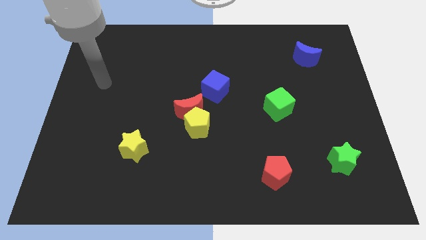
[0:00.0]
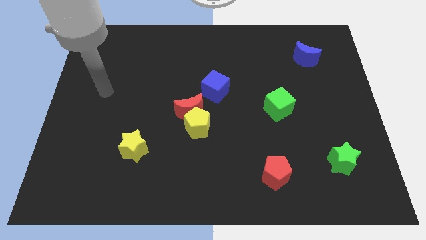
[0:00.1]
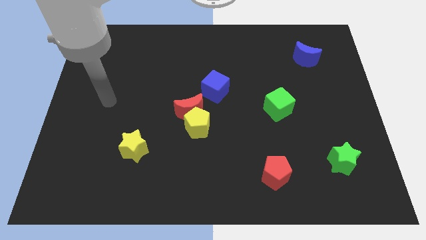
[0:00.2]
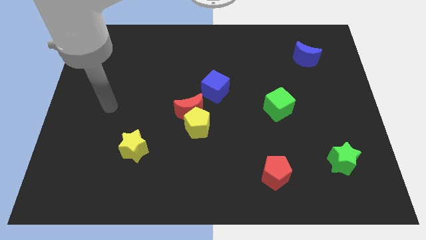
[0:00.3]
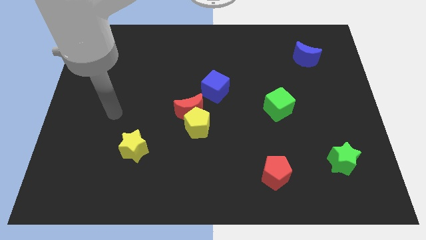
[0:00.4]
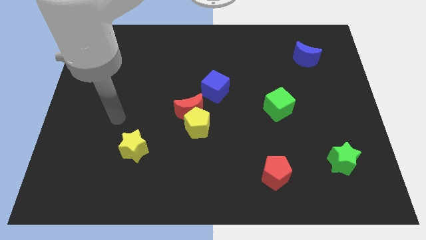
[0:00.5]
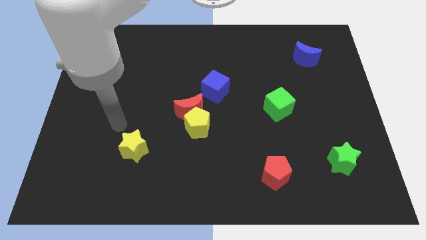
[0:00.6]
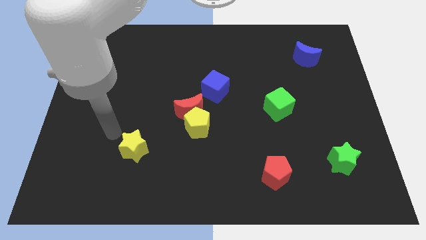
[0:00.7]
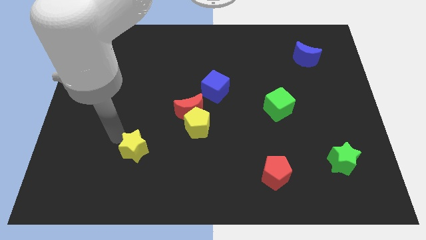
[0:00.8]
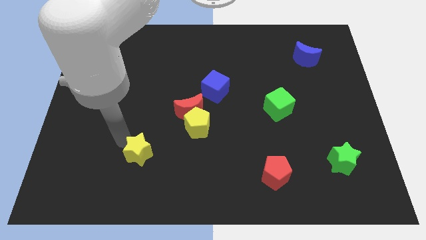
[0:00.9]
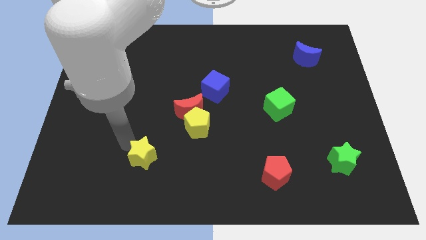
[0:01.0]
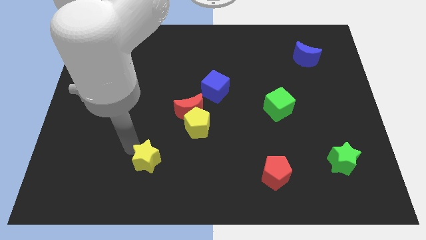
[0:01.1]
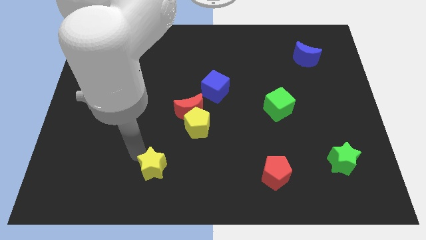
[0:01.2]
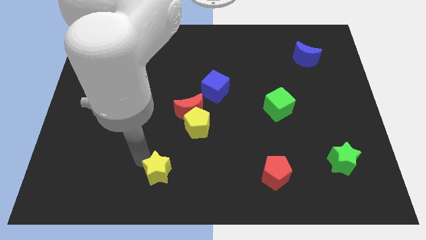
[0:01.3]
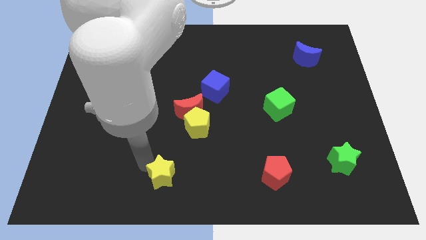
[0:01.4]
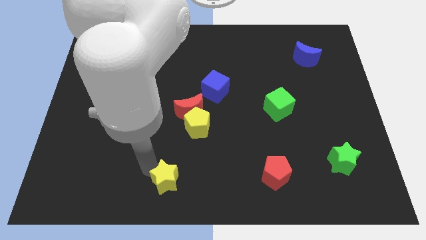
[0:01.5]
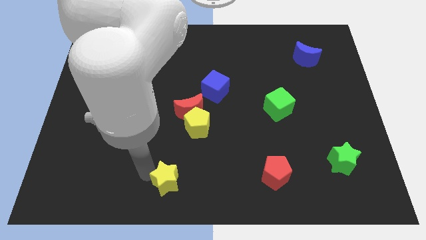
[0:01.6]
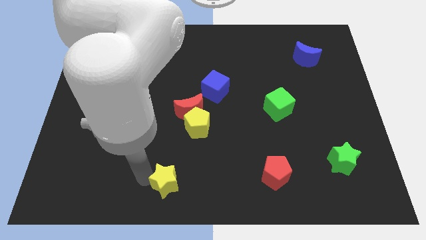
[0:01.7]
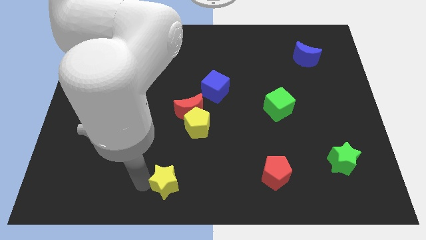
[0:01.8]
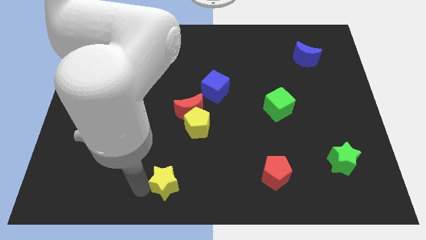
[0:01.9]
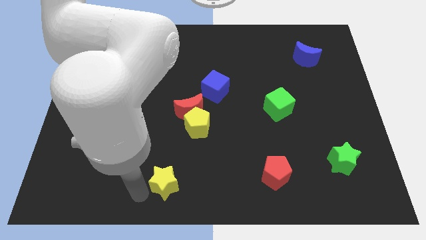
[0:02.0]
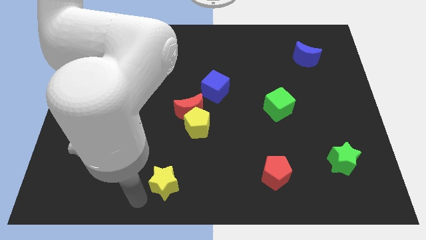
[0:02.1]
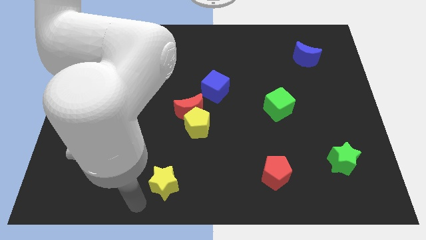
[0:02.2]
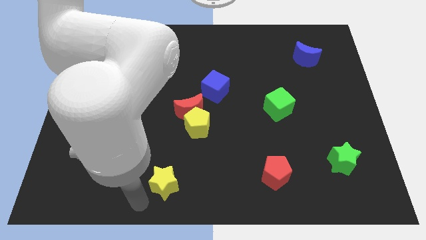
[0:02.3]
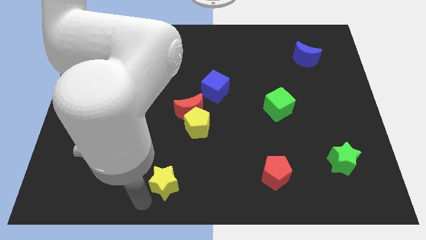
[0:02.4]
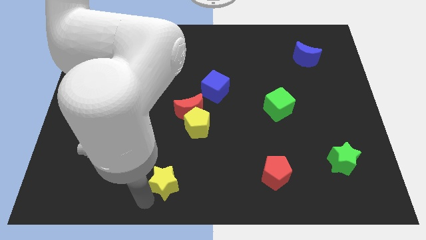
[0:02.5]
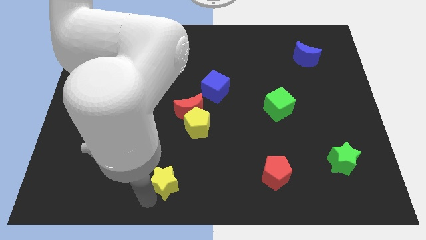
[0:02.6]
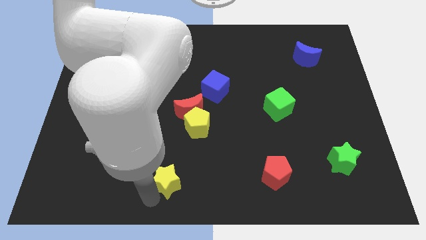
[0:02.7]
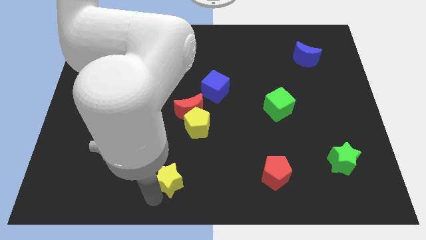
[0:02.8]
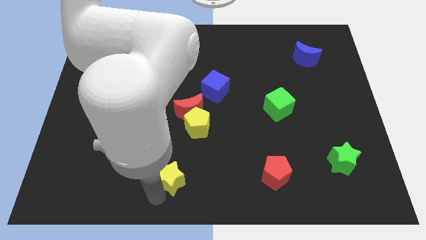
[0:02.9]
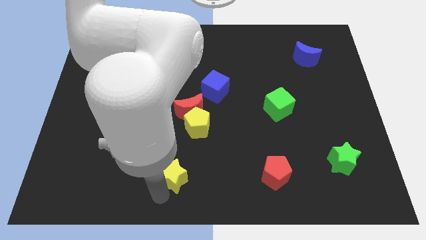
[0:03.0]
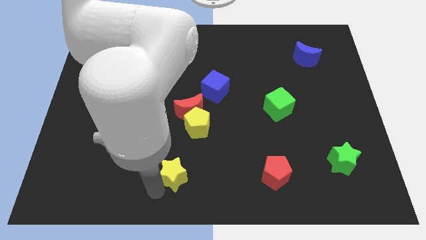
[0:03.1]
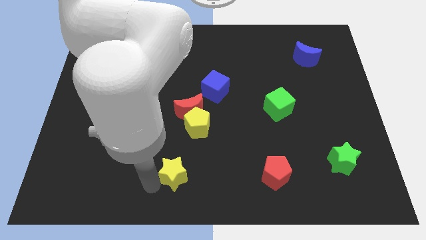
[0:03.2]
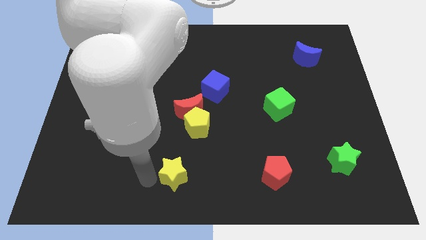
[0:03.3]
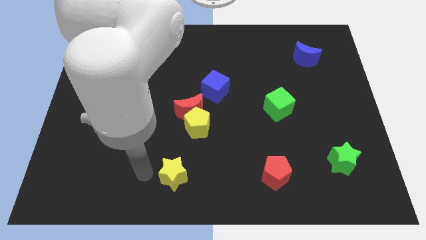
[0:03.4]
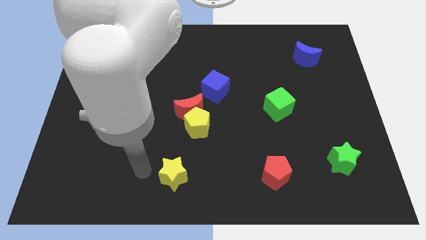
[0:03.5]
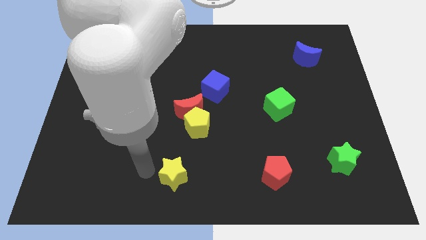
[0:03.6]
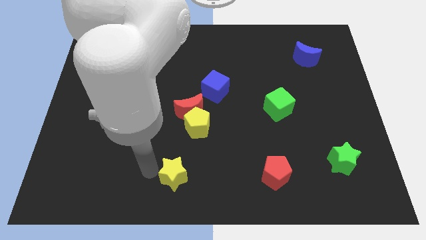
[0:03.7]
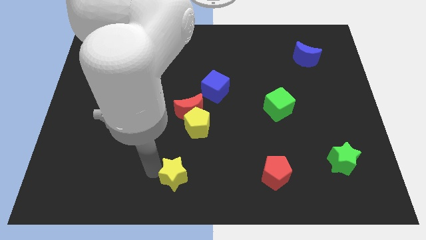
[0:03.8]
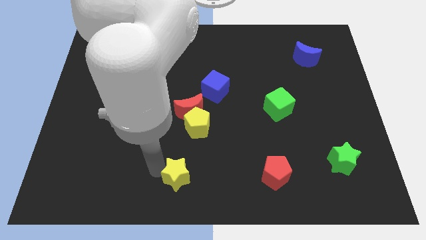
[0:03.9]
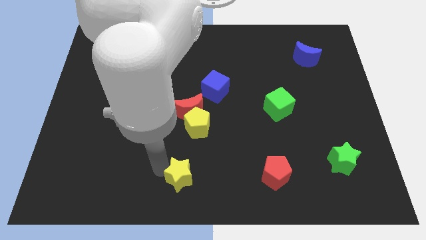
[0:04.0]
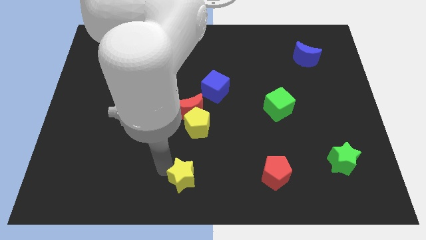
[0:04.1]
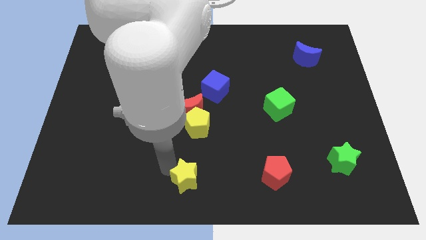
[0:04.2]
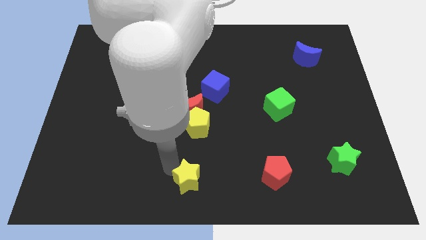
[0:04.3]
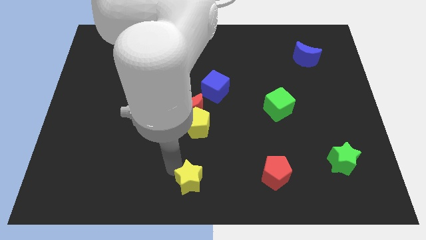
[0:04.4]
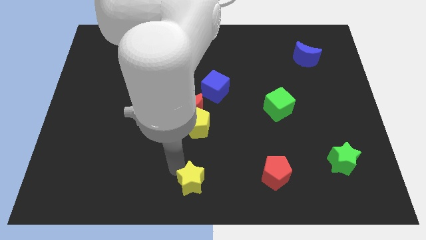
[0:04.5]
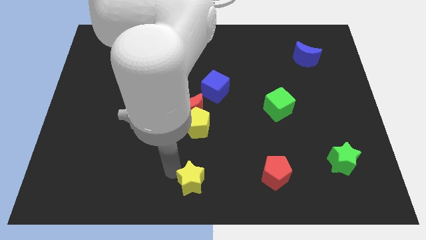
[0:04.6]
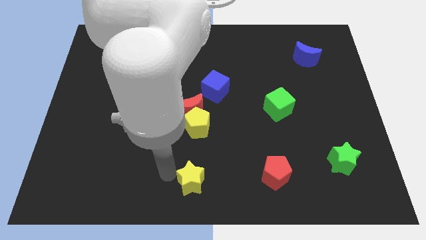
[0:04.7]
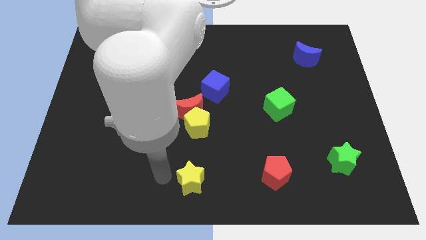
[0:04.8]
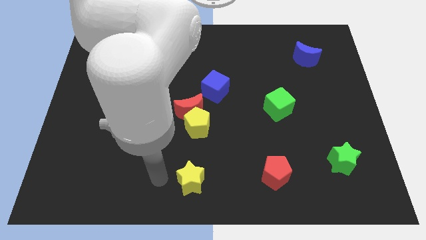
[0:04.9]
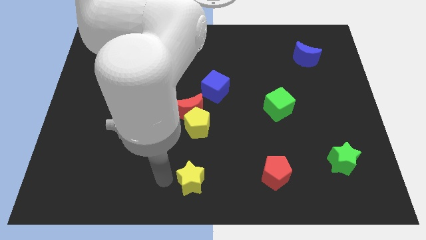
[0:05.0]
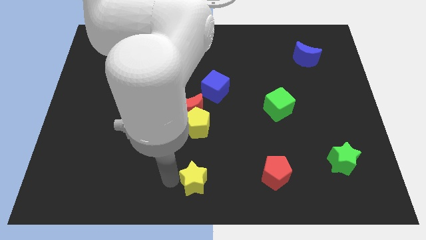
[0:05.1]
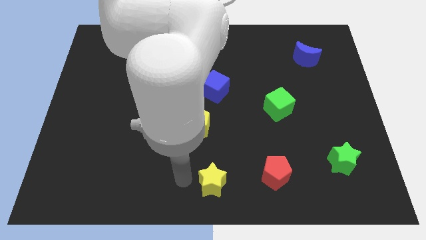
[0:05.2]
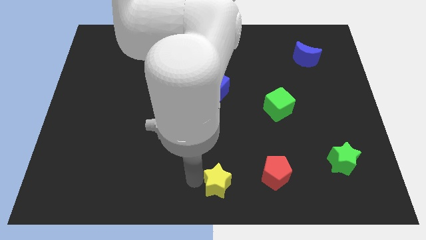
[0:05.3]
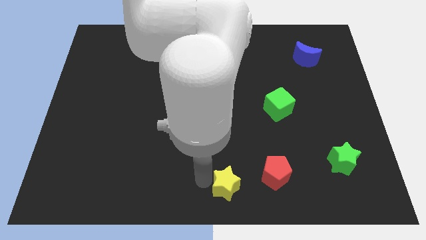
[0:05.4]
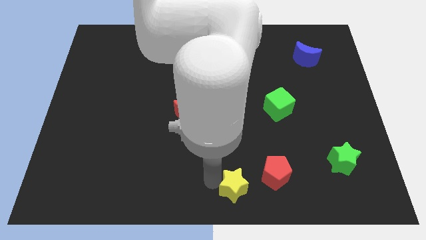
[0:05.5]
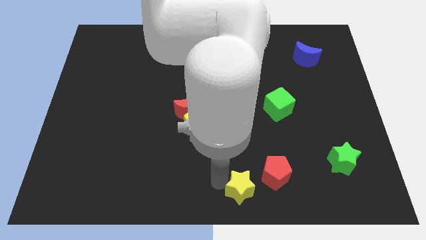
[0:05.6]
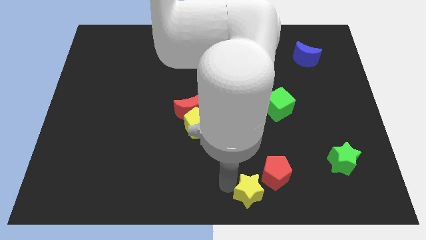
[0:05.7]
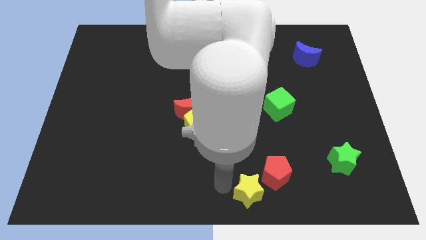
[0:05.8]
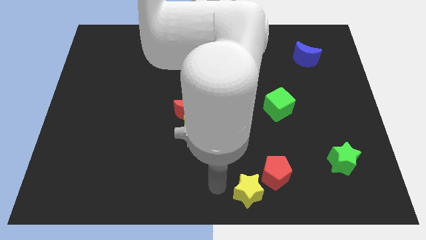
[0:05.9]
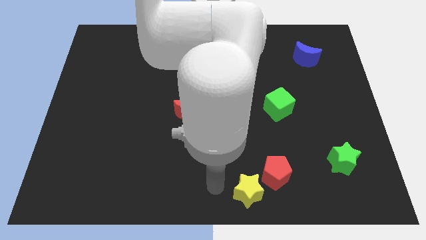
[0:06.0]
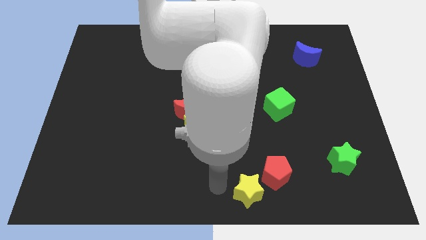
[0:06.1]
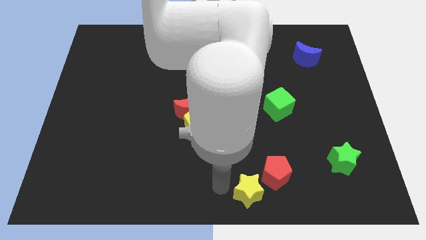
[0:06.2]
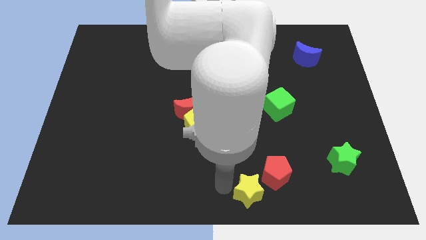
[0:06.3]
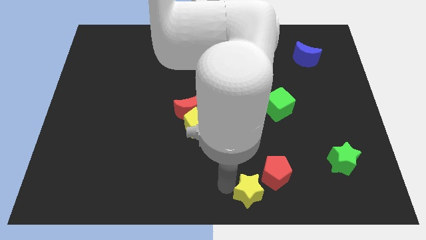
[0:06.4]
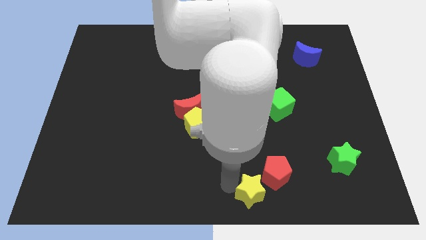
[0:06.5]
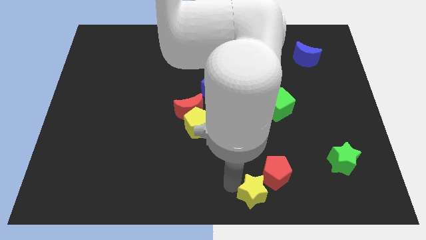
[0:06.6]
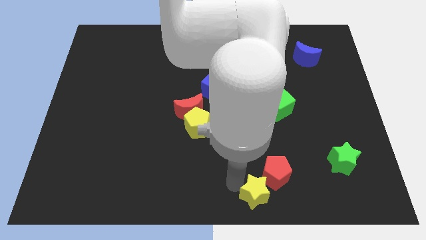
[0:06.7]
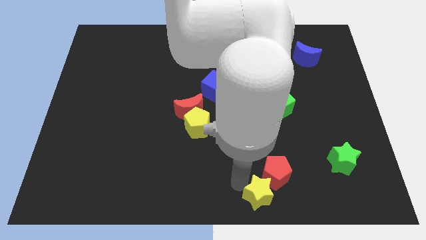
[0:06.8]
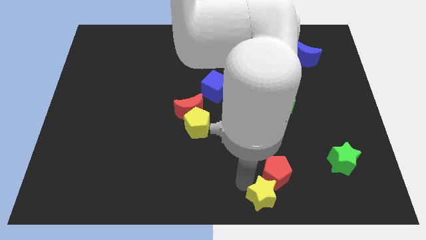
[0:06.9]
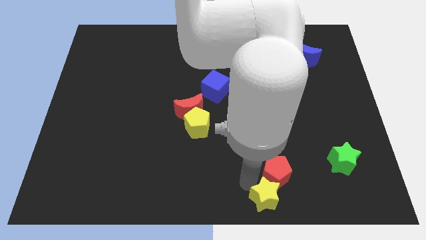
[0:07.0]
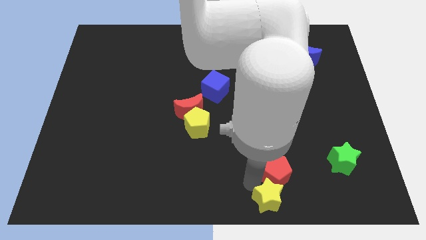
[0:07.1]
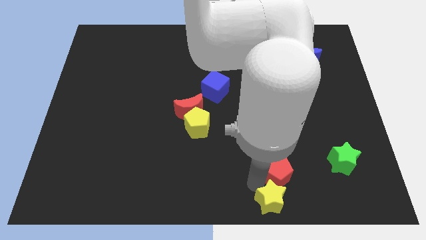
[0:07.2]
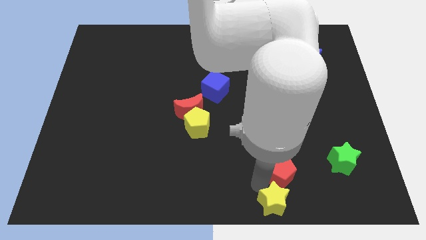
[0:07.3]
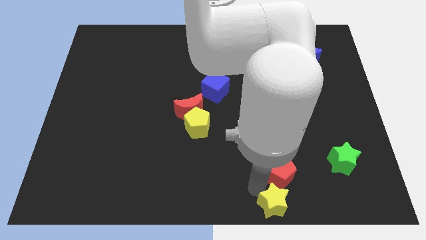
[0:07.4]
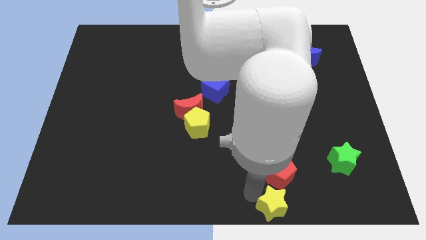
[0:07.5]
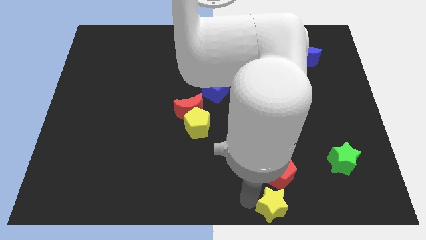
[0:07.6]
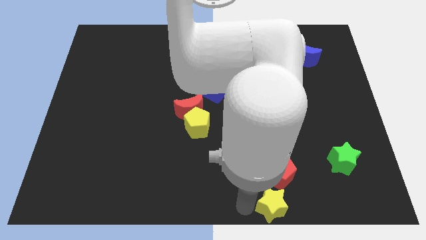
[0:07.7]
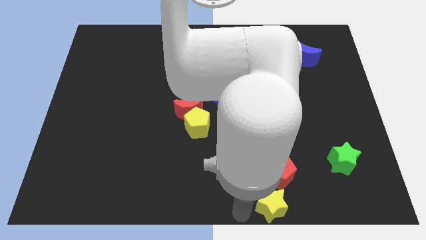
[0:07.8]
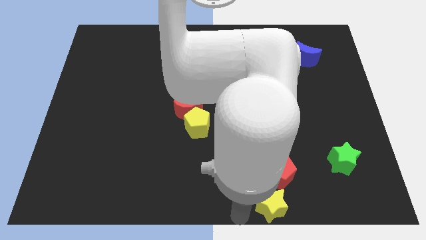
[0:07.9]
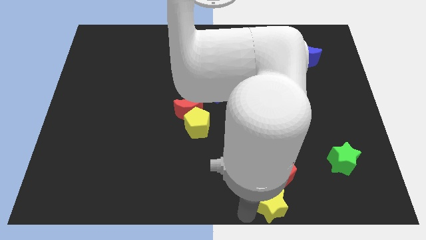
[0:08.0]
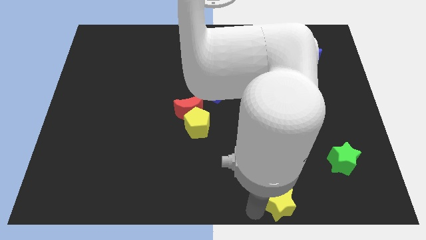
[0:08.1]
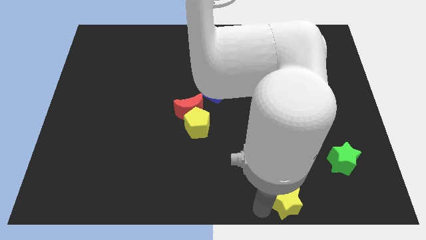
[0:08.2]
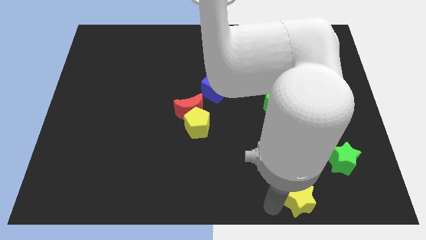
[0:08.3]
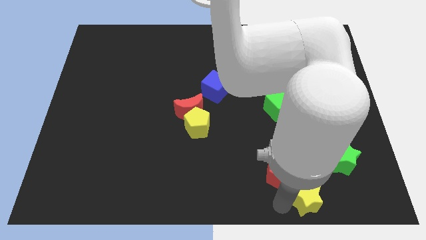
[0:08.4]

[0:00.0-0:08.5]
move the yellow star to the bottom left of the green star
